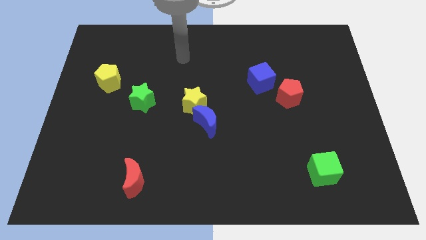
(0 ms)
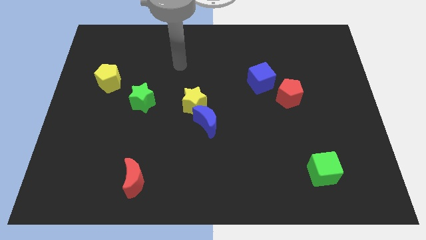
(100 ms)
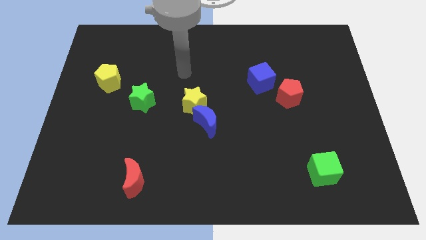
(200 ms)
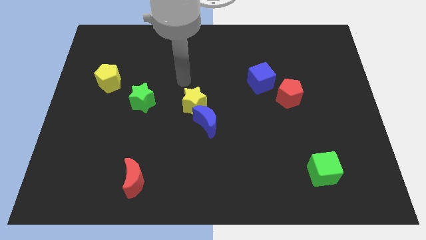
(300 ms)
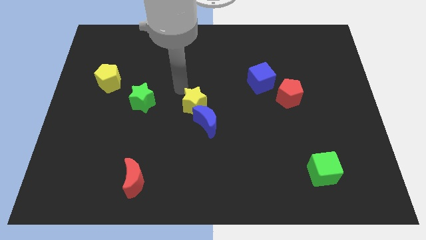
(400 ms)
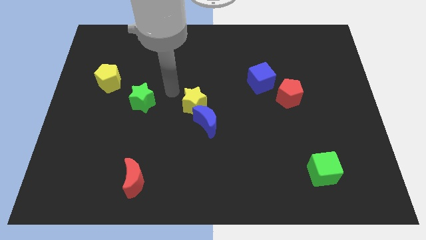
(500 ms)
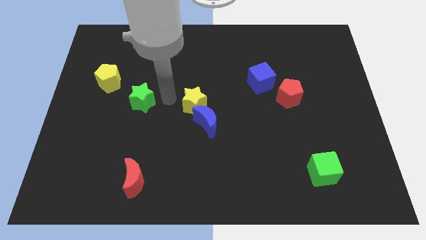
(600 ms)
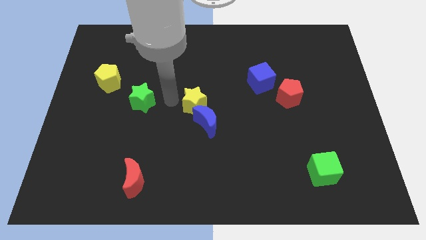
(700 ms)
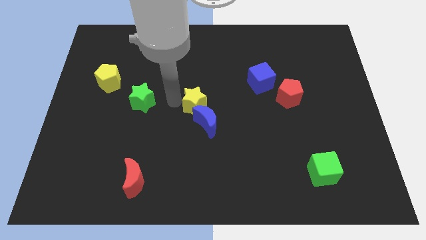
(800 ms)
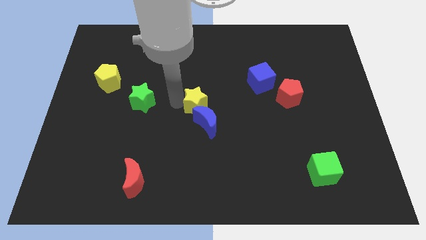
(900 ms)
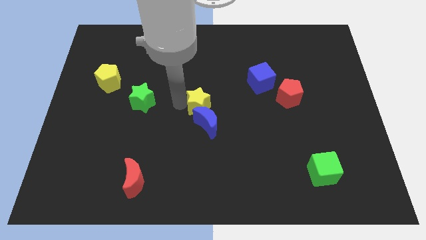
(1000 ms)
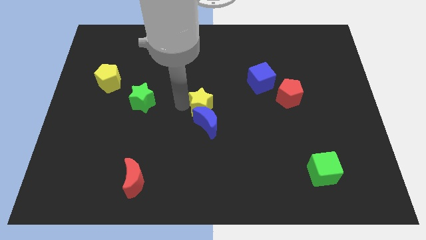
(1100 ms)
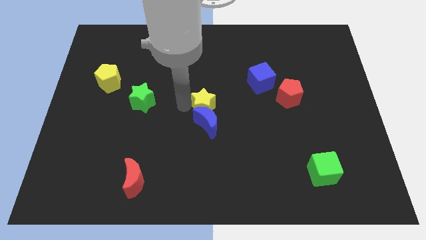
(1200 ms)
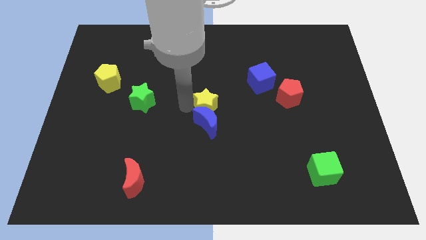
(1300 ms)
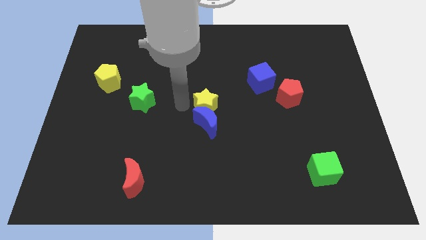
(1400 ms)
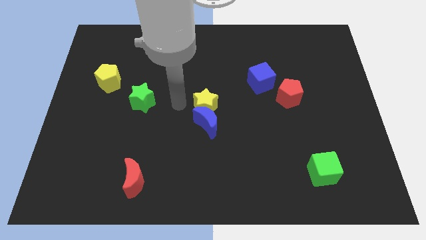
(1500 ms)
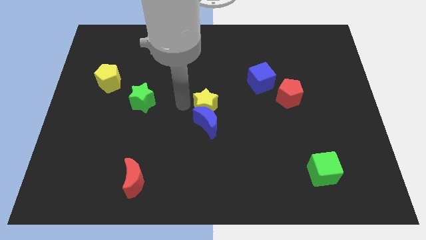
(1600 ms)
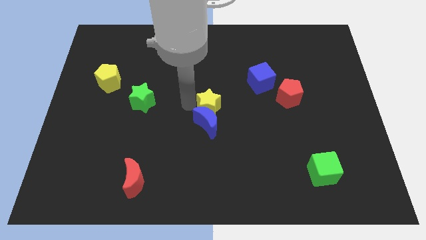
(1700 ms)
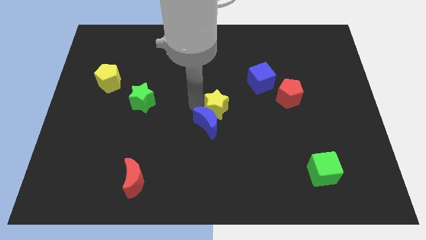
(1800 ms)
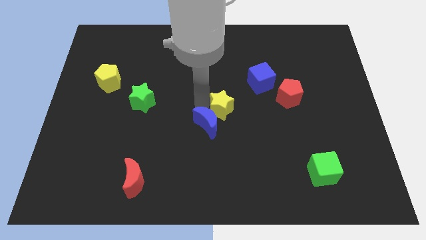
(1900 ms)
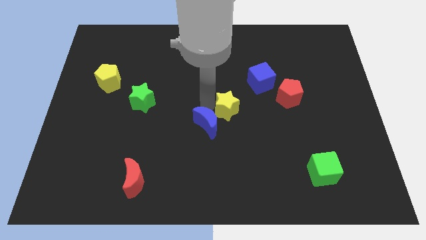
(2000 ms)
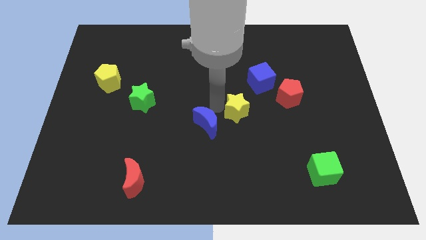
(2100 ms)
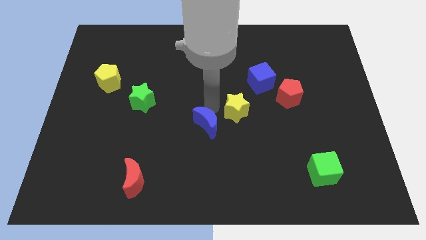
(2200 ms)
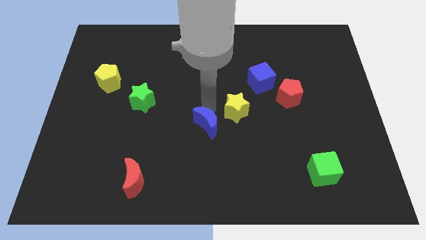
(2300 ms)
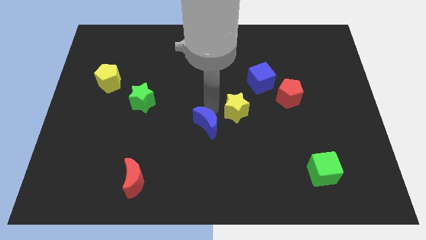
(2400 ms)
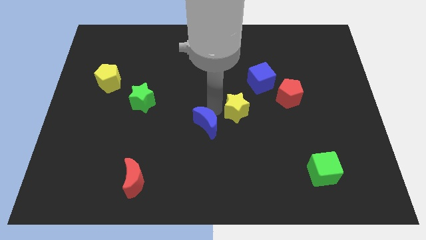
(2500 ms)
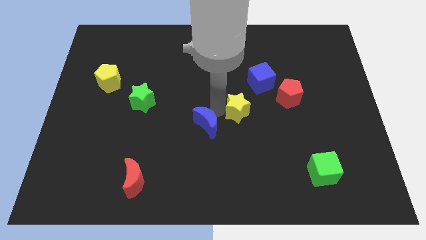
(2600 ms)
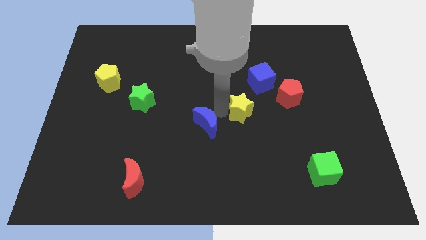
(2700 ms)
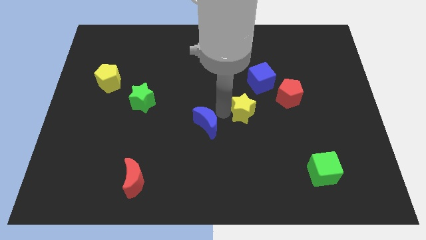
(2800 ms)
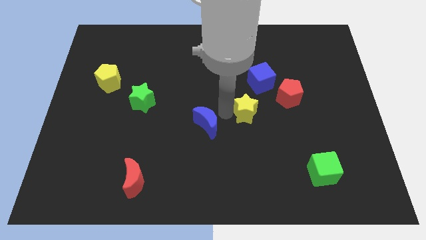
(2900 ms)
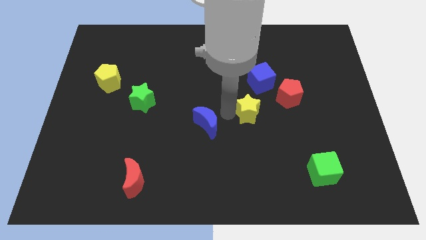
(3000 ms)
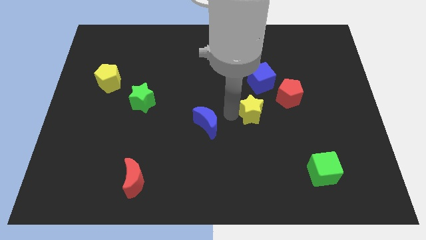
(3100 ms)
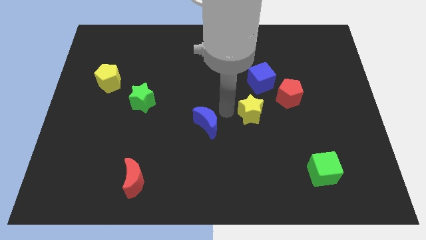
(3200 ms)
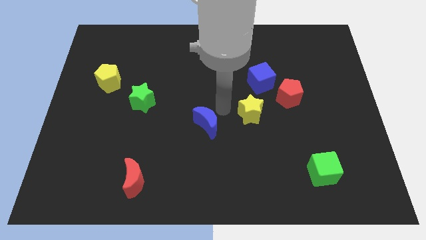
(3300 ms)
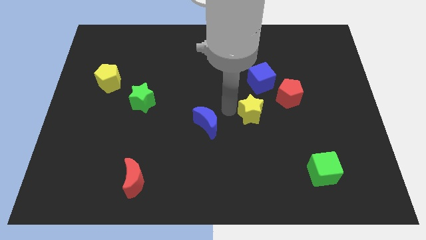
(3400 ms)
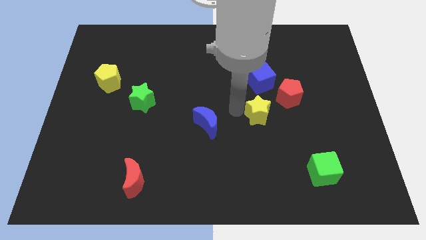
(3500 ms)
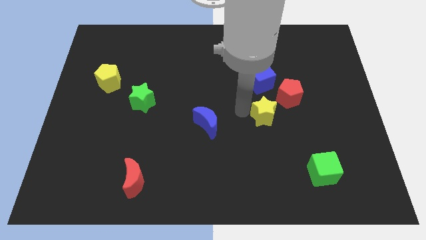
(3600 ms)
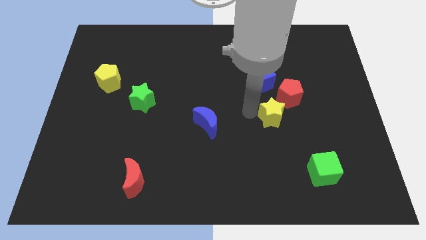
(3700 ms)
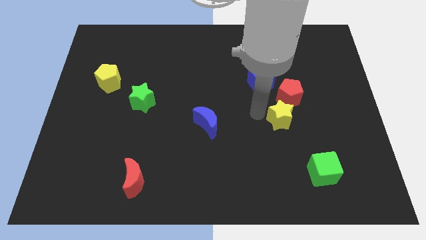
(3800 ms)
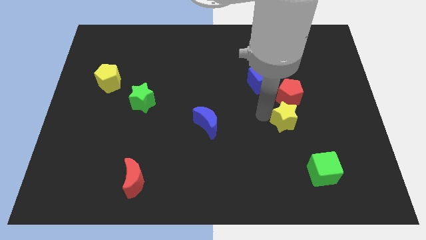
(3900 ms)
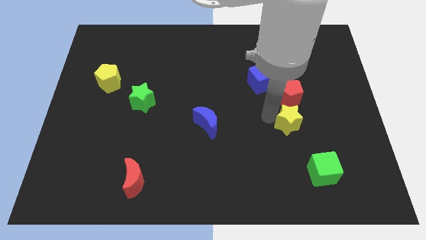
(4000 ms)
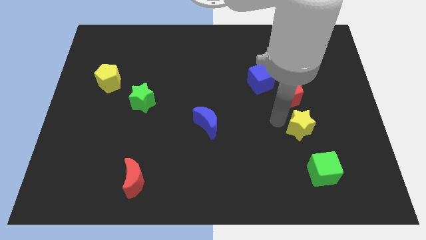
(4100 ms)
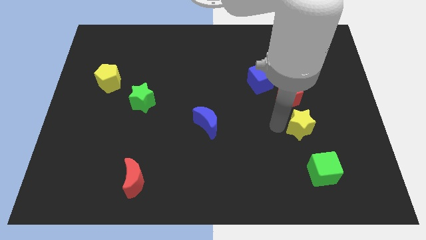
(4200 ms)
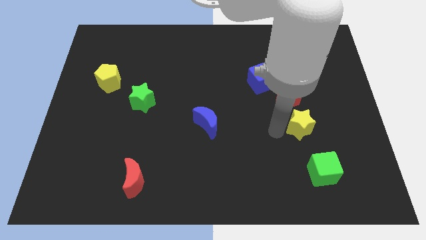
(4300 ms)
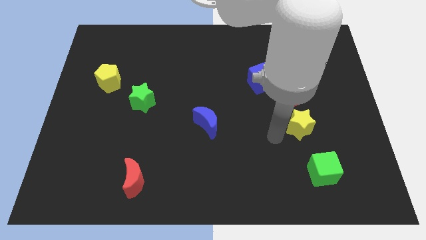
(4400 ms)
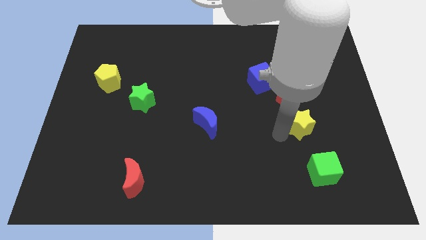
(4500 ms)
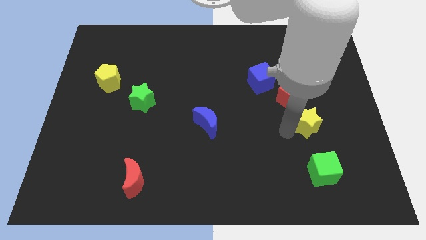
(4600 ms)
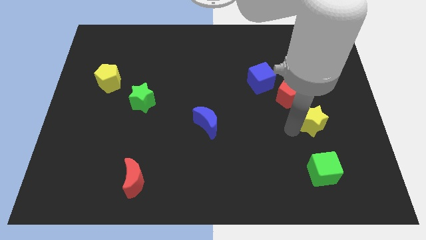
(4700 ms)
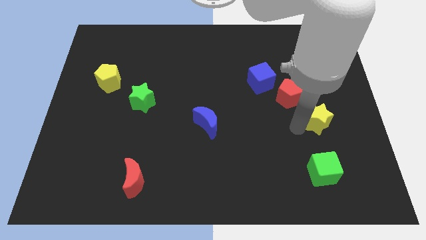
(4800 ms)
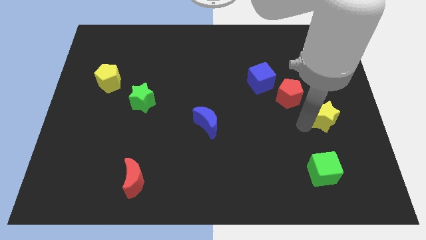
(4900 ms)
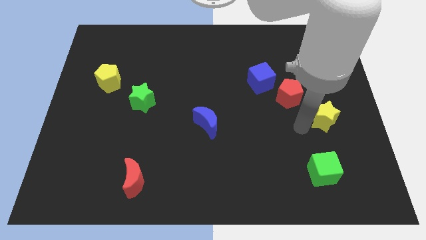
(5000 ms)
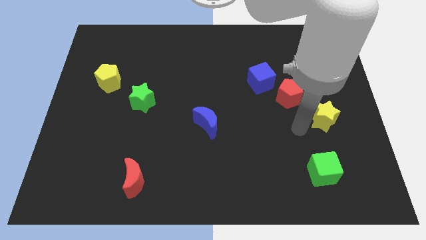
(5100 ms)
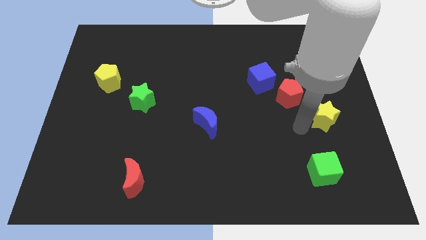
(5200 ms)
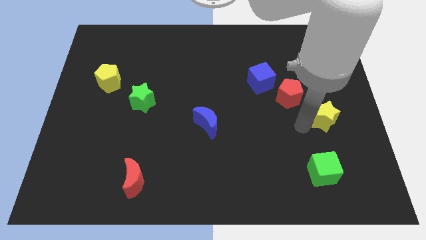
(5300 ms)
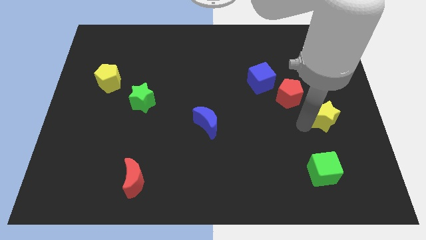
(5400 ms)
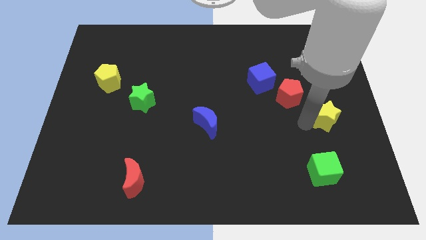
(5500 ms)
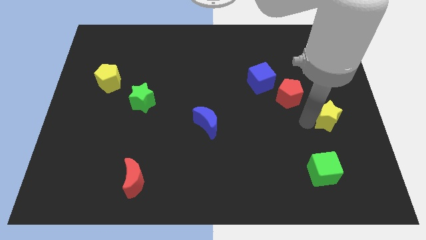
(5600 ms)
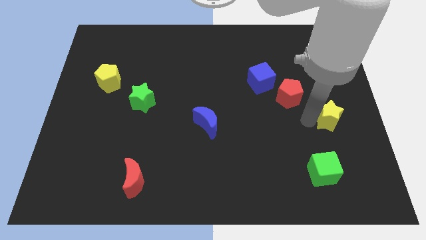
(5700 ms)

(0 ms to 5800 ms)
move the yellow star to the right side

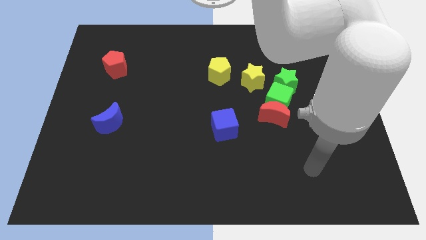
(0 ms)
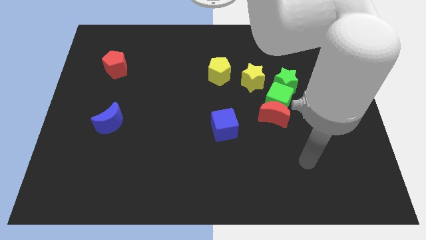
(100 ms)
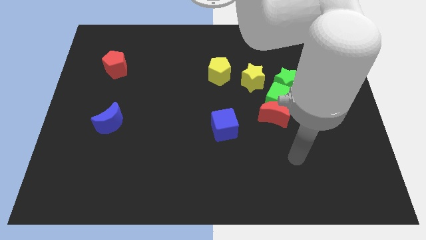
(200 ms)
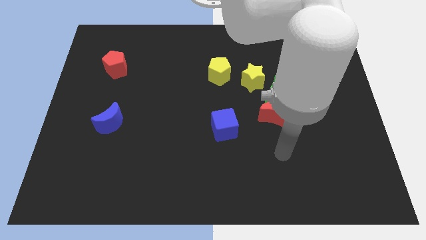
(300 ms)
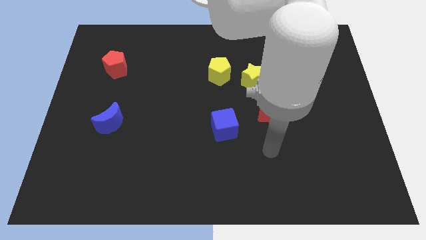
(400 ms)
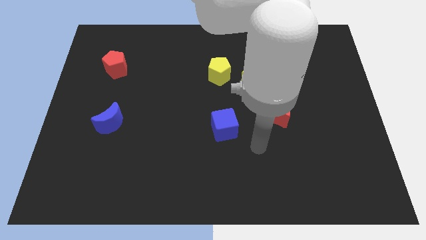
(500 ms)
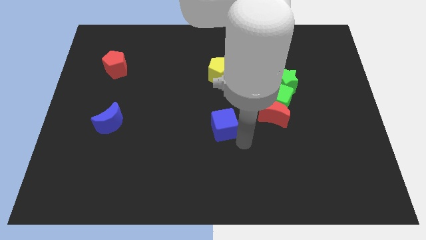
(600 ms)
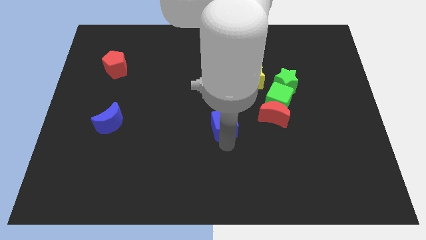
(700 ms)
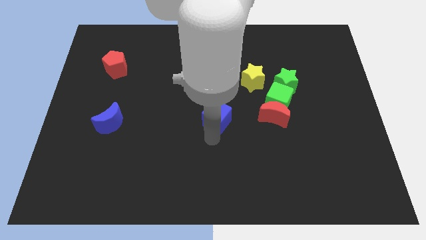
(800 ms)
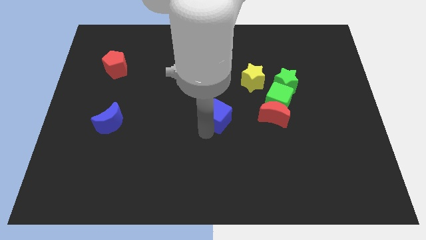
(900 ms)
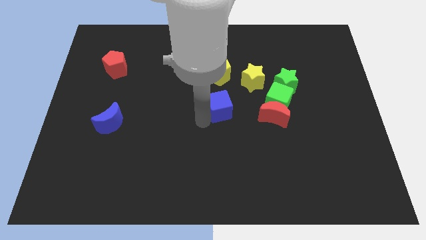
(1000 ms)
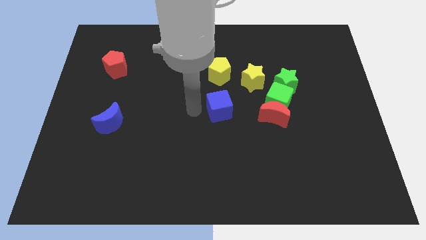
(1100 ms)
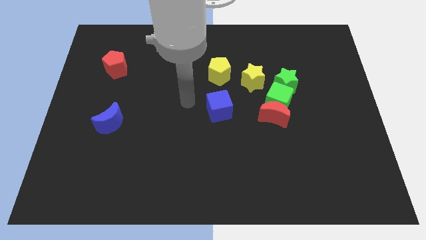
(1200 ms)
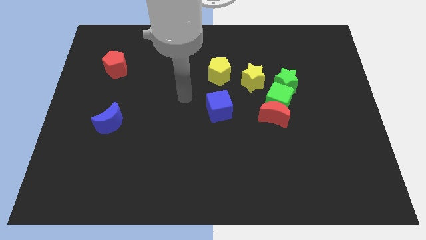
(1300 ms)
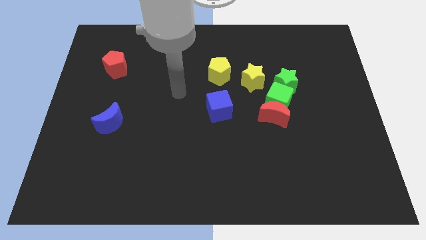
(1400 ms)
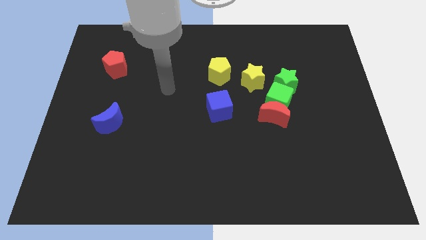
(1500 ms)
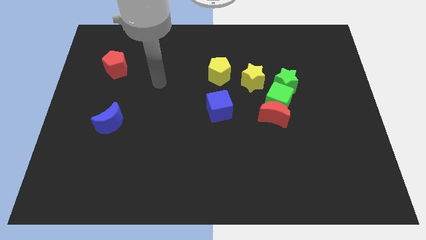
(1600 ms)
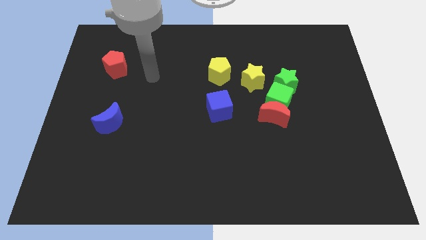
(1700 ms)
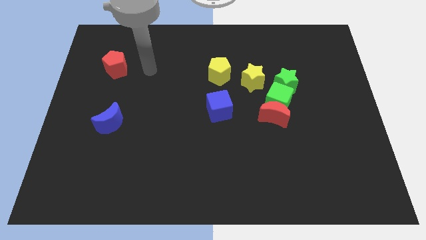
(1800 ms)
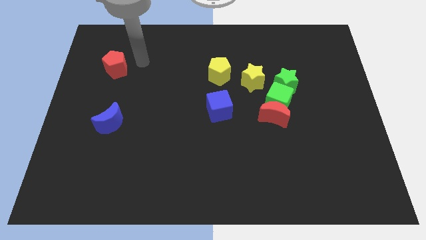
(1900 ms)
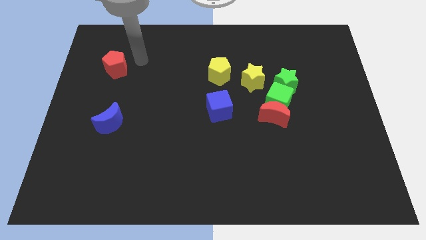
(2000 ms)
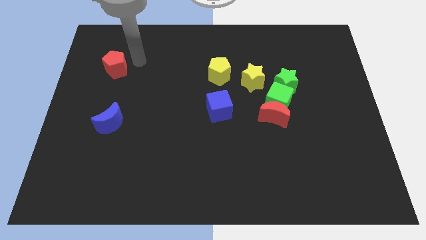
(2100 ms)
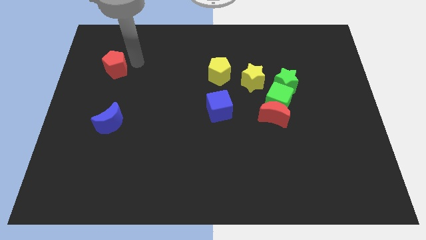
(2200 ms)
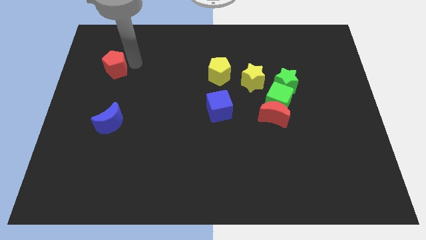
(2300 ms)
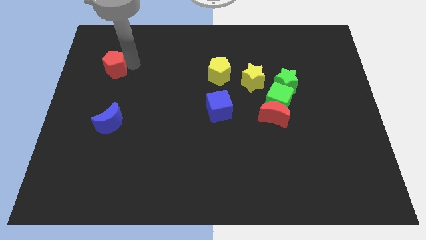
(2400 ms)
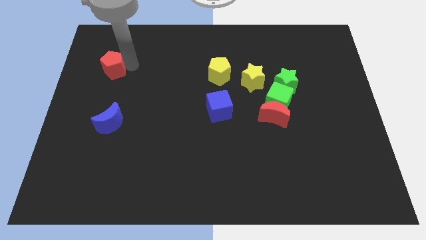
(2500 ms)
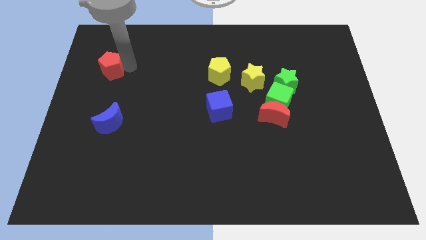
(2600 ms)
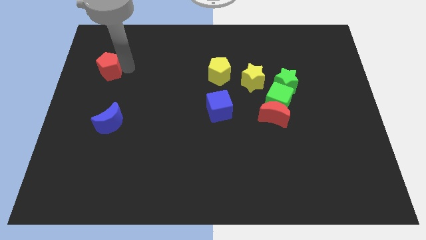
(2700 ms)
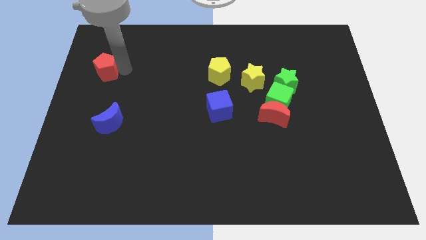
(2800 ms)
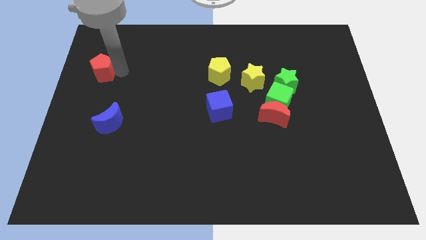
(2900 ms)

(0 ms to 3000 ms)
slide the red pentagon to the left side of the board
